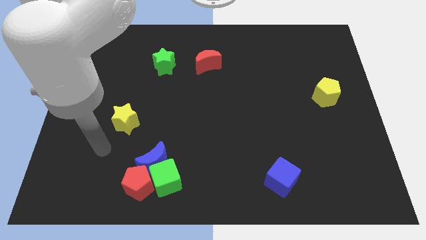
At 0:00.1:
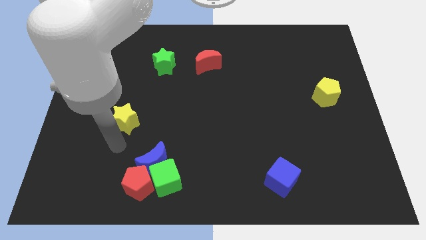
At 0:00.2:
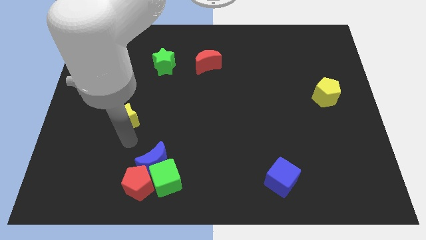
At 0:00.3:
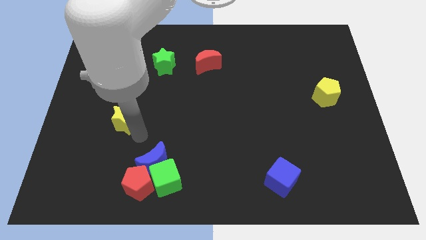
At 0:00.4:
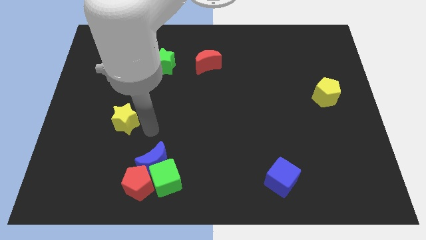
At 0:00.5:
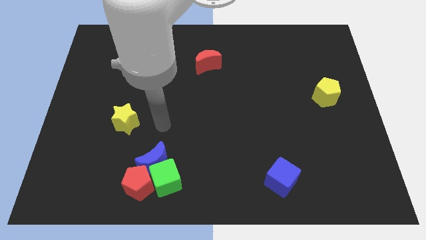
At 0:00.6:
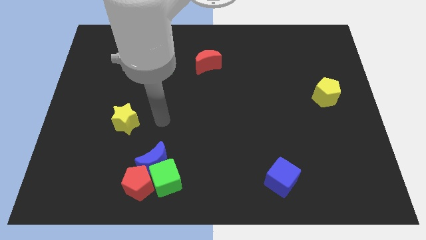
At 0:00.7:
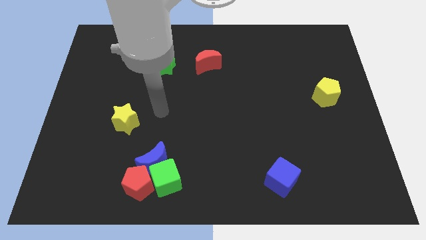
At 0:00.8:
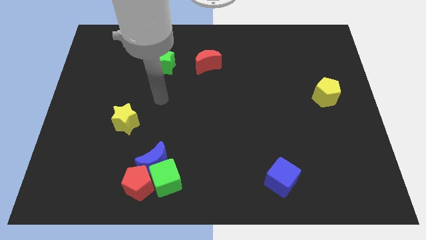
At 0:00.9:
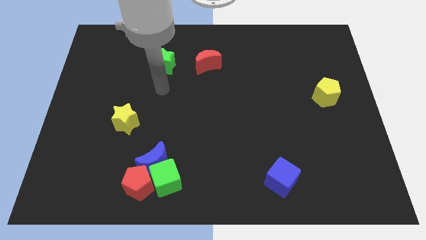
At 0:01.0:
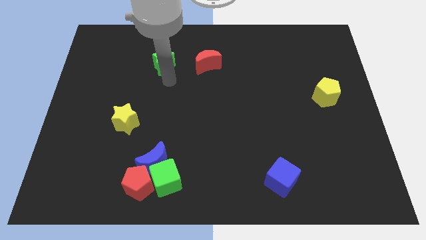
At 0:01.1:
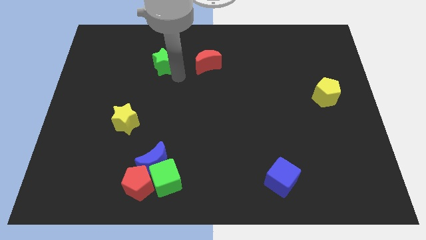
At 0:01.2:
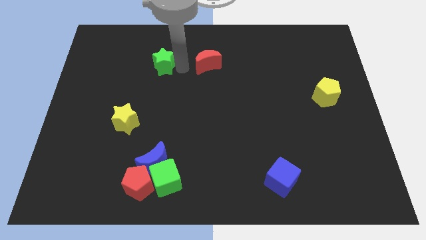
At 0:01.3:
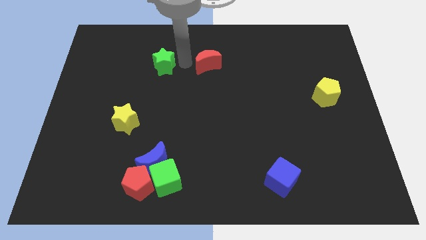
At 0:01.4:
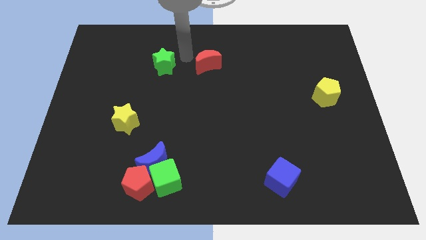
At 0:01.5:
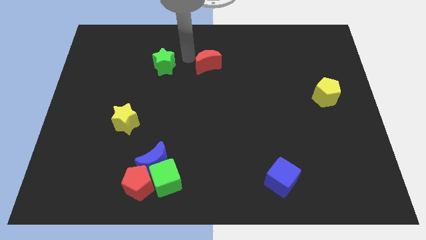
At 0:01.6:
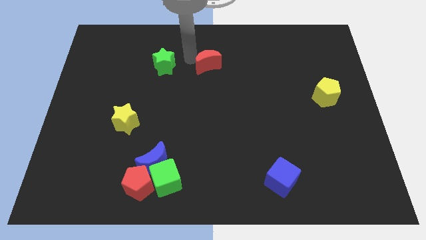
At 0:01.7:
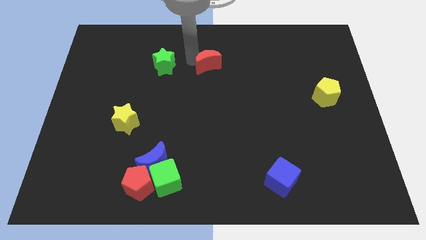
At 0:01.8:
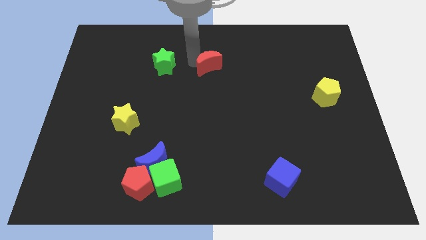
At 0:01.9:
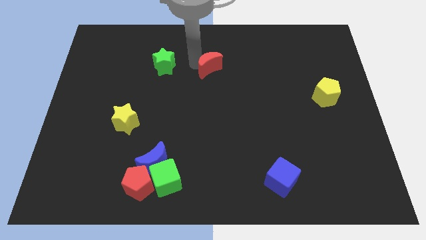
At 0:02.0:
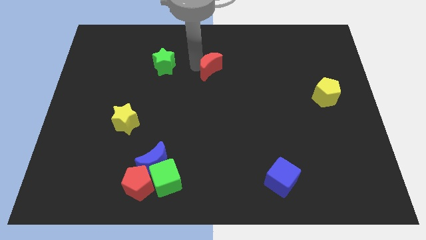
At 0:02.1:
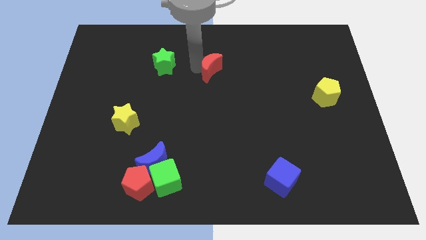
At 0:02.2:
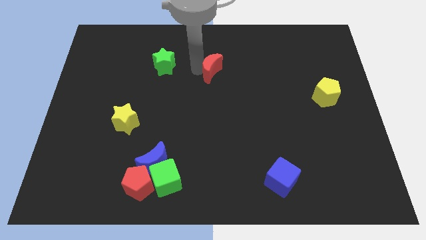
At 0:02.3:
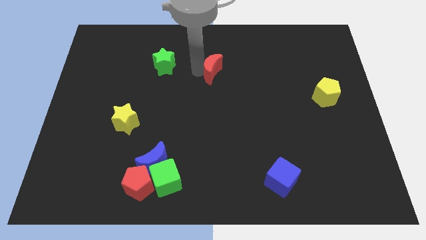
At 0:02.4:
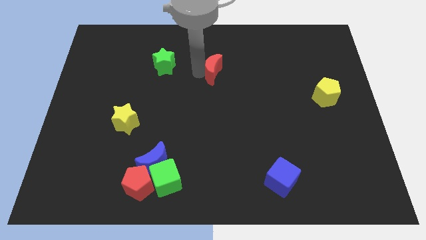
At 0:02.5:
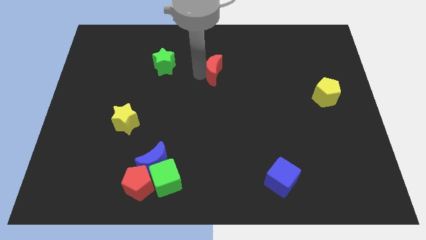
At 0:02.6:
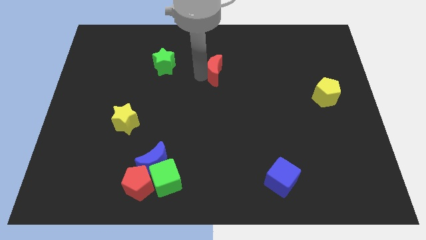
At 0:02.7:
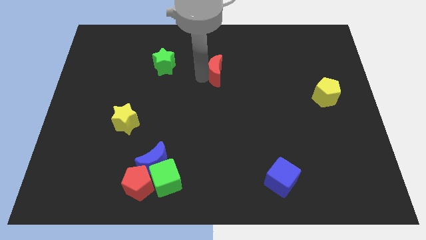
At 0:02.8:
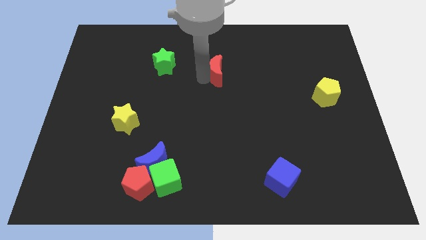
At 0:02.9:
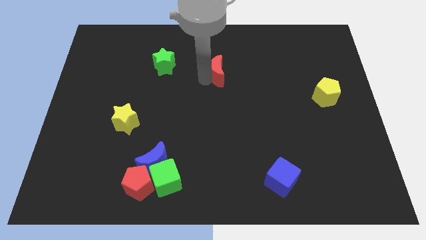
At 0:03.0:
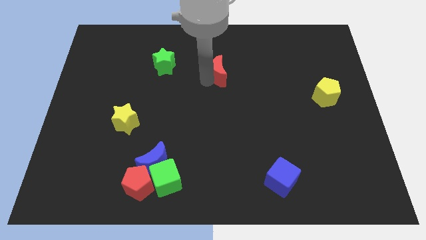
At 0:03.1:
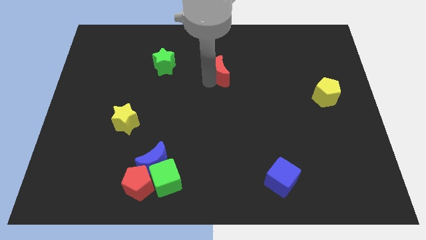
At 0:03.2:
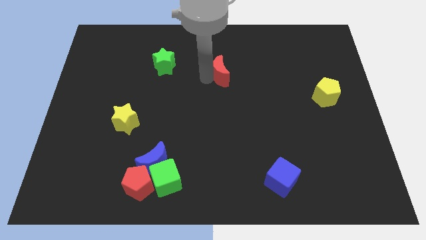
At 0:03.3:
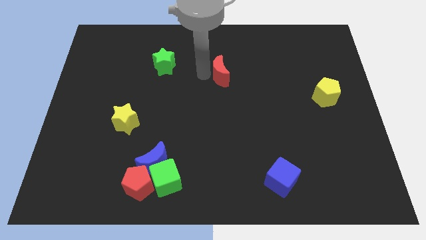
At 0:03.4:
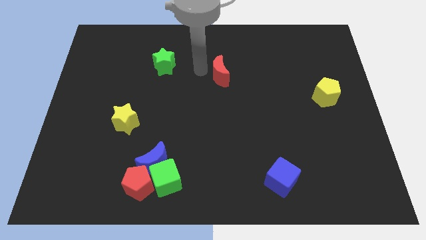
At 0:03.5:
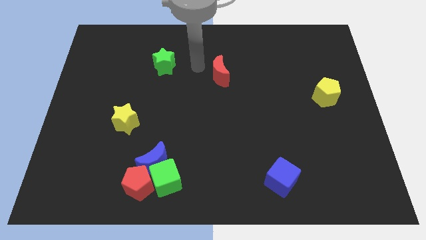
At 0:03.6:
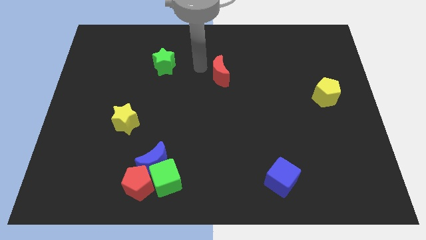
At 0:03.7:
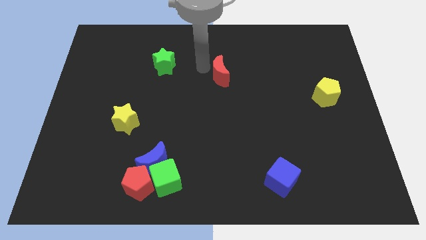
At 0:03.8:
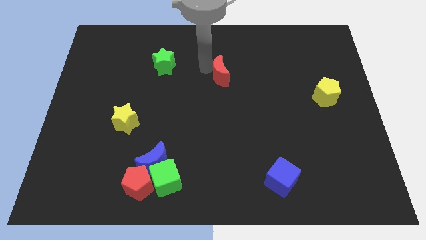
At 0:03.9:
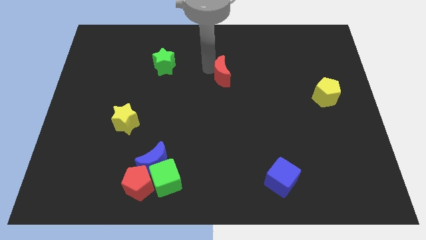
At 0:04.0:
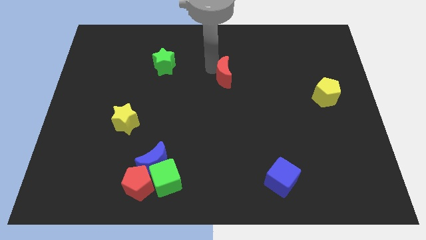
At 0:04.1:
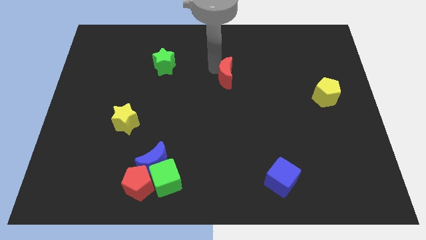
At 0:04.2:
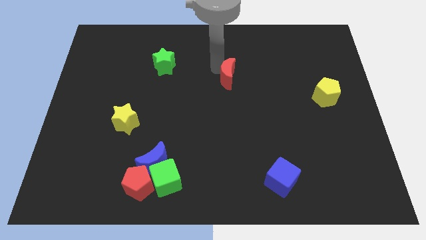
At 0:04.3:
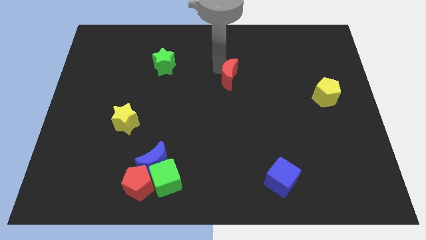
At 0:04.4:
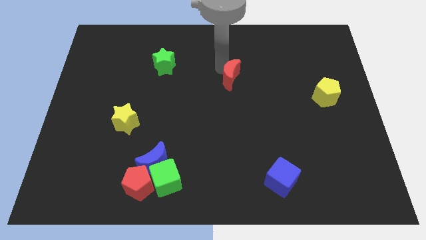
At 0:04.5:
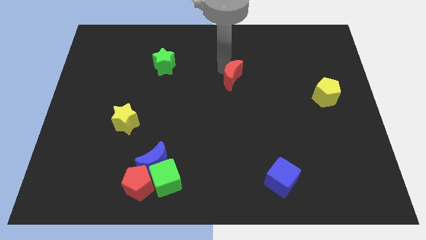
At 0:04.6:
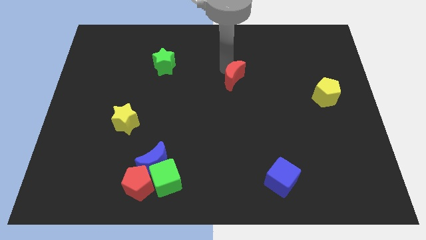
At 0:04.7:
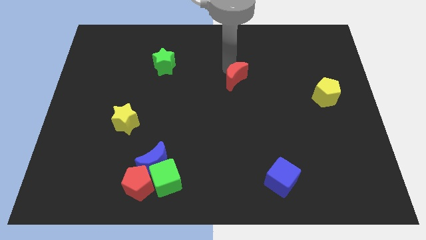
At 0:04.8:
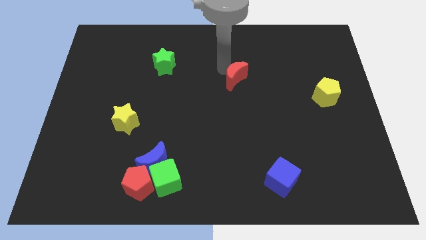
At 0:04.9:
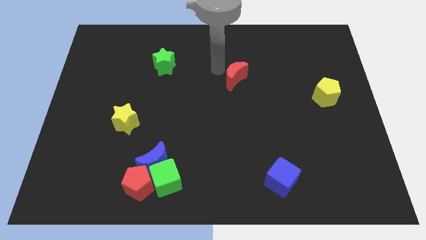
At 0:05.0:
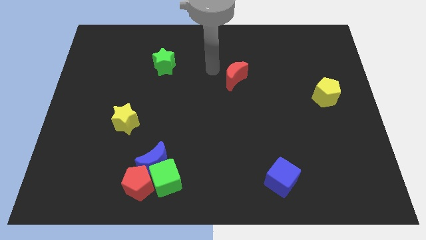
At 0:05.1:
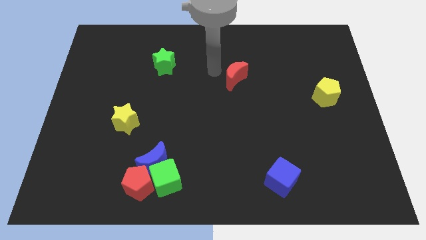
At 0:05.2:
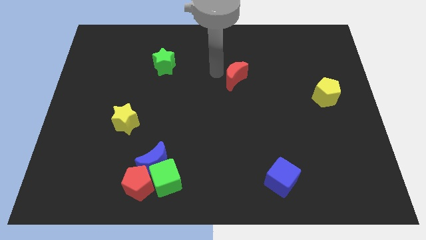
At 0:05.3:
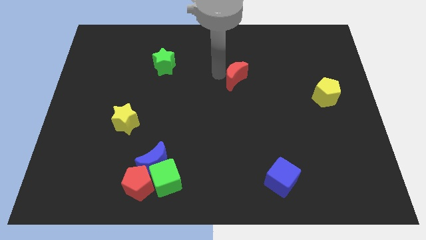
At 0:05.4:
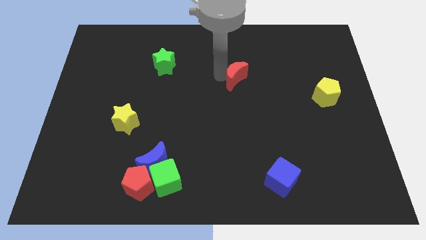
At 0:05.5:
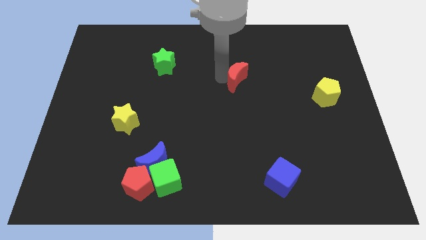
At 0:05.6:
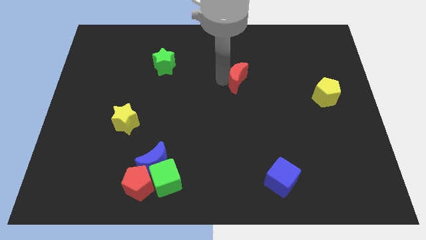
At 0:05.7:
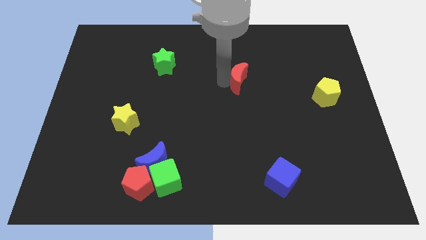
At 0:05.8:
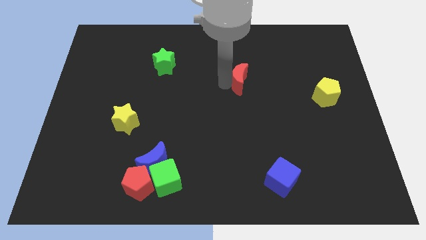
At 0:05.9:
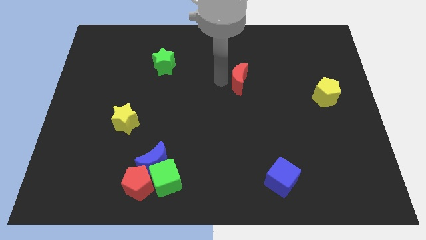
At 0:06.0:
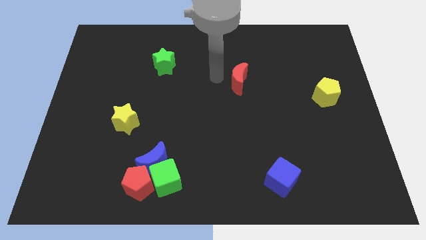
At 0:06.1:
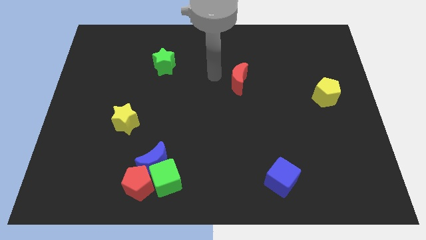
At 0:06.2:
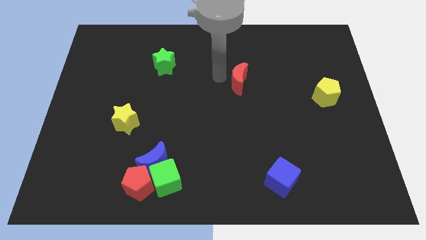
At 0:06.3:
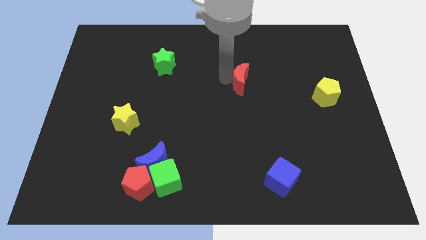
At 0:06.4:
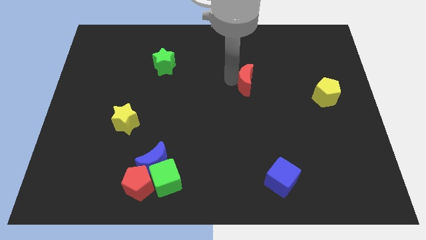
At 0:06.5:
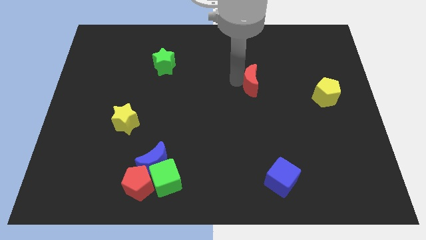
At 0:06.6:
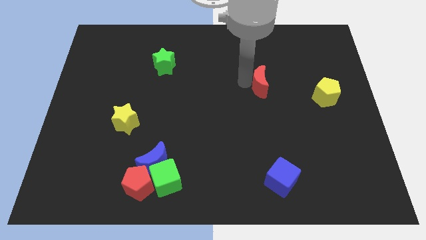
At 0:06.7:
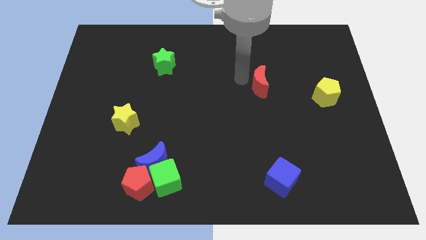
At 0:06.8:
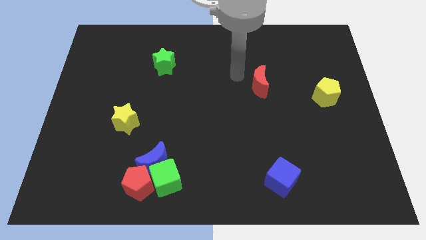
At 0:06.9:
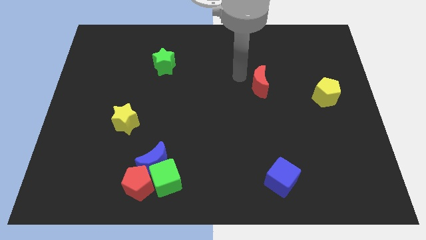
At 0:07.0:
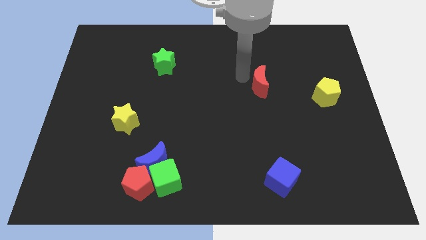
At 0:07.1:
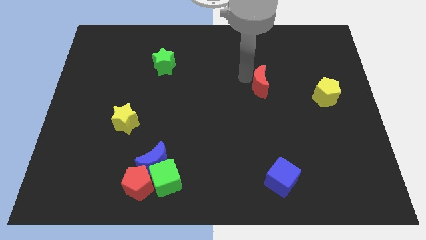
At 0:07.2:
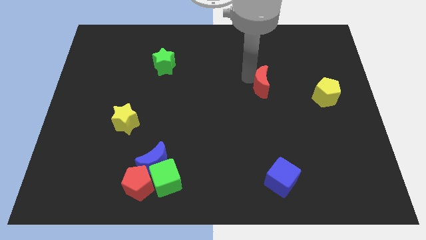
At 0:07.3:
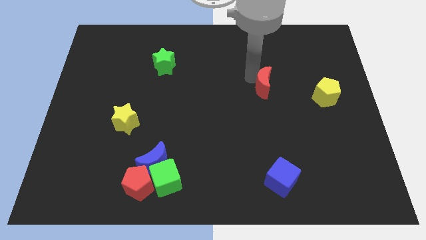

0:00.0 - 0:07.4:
slide the red moon to the left of the yellow pentagon
